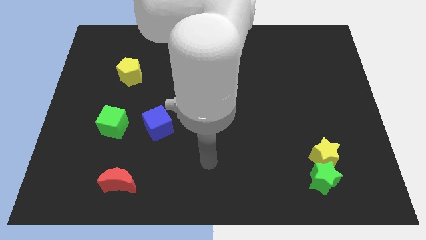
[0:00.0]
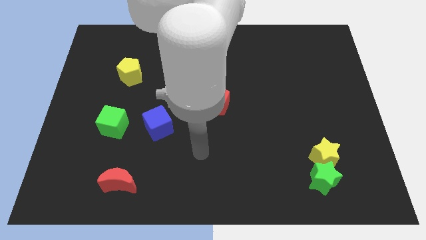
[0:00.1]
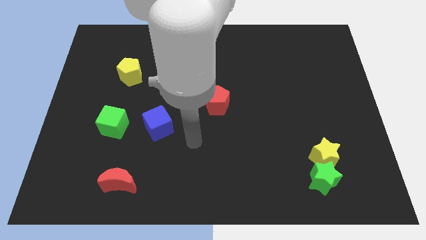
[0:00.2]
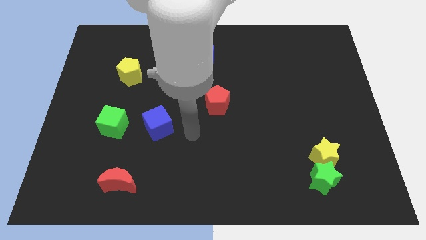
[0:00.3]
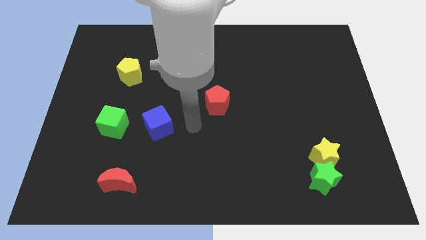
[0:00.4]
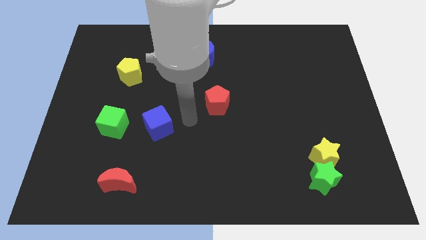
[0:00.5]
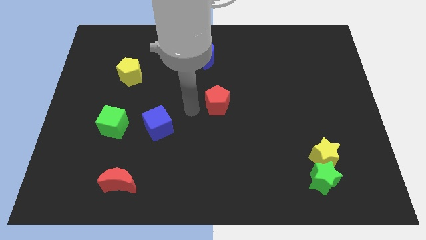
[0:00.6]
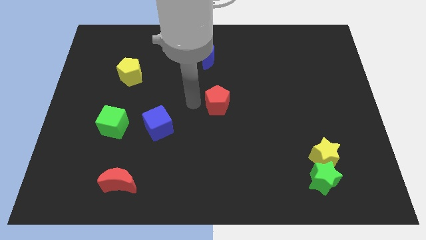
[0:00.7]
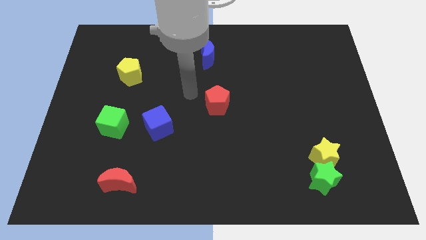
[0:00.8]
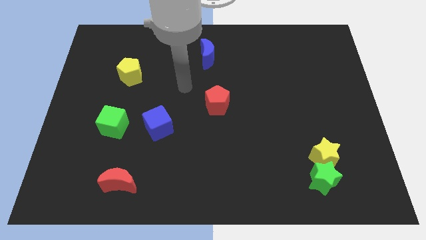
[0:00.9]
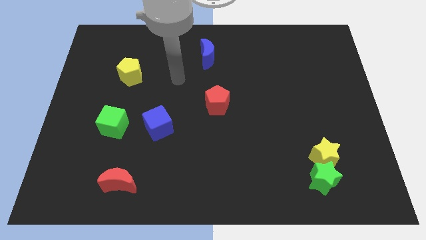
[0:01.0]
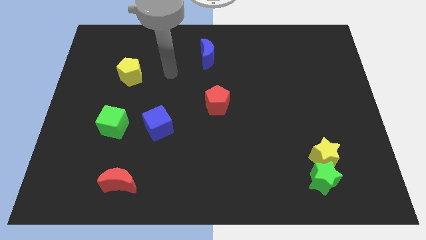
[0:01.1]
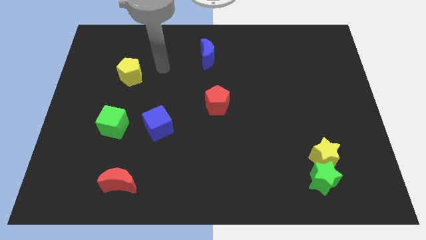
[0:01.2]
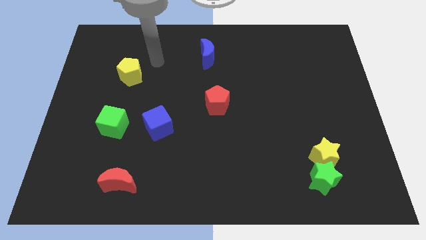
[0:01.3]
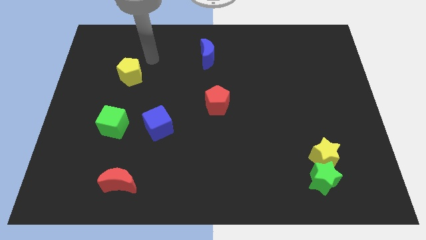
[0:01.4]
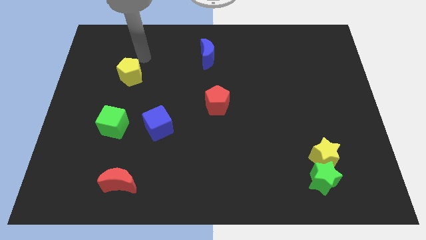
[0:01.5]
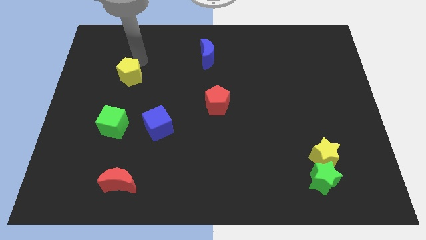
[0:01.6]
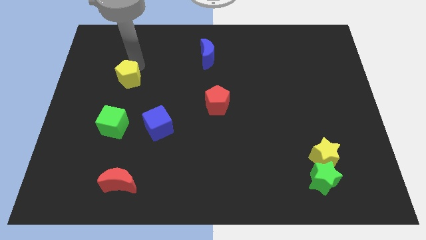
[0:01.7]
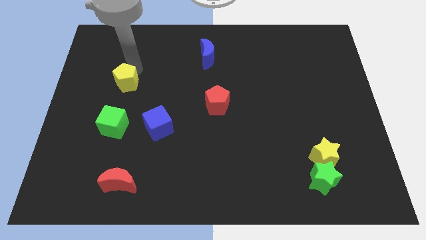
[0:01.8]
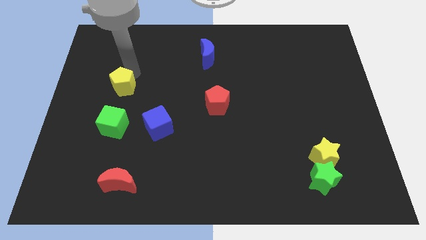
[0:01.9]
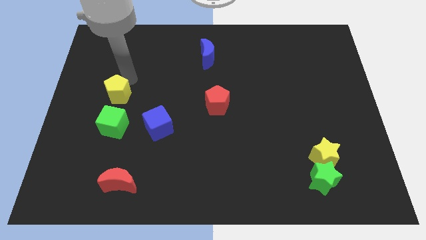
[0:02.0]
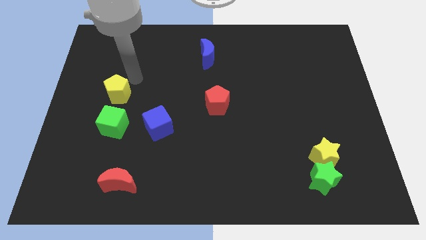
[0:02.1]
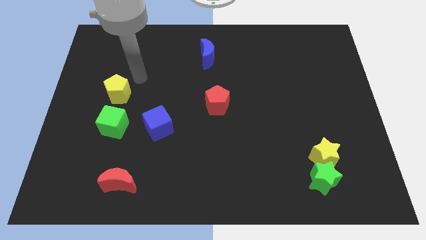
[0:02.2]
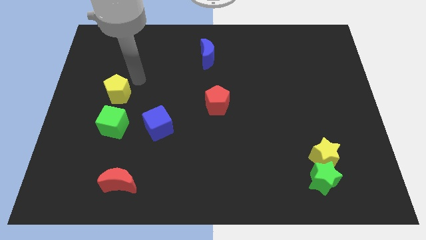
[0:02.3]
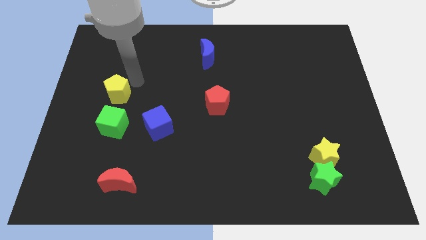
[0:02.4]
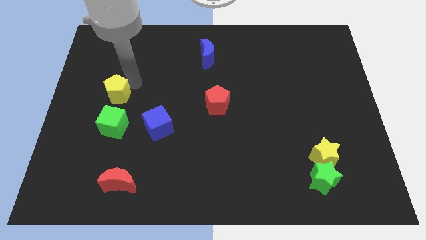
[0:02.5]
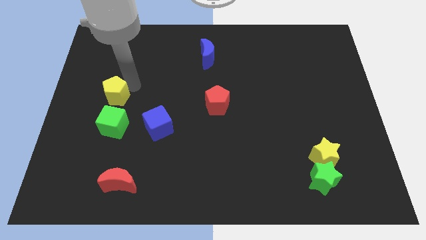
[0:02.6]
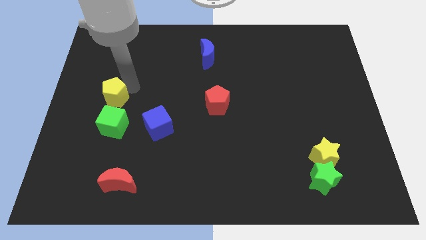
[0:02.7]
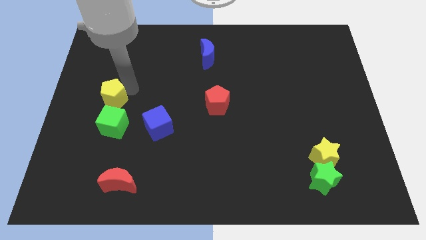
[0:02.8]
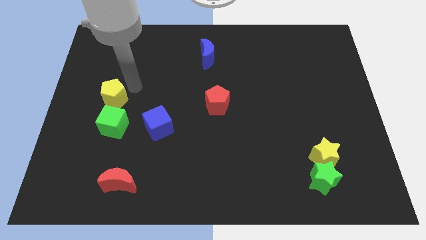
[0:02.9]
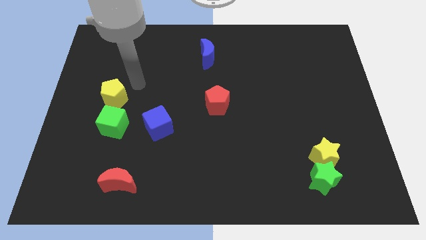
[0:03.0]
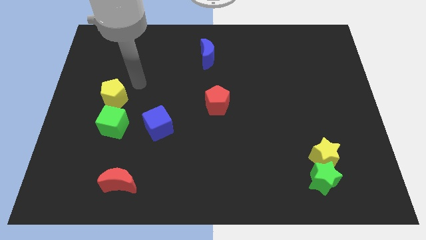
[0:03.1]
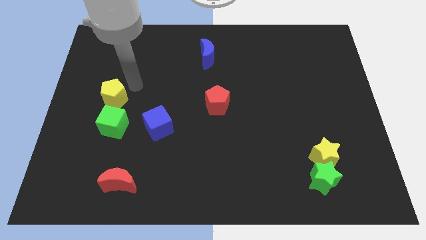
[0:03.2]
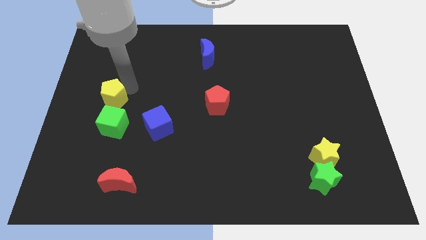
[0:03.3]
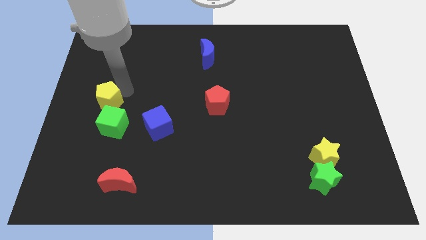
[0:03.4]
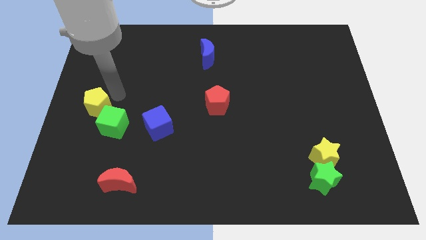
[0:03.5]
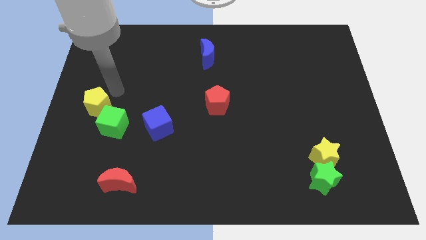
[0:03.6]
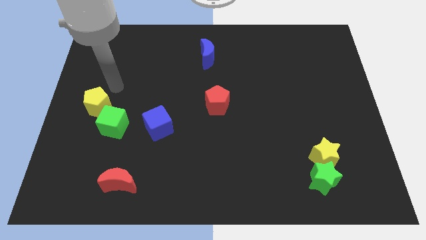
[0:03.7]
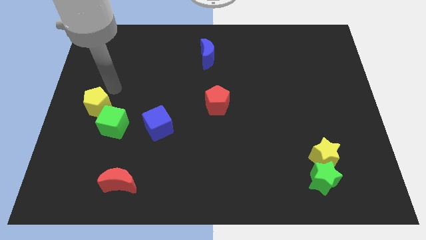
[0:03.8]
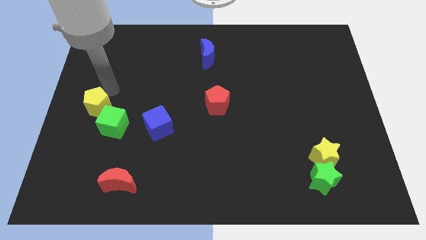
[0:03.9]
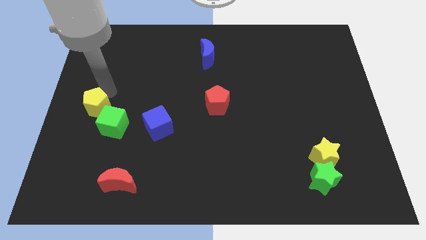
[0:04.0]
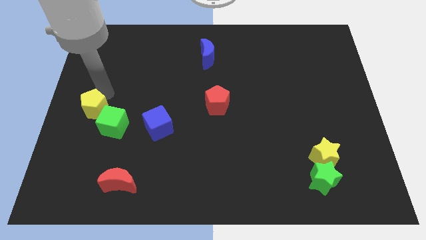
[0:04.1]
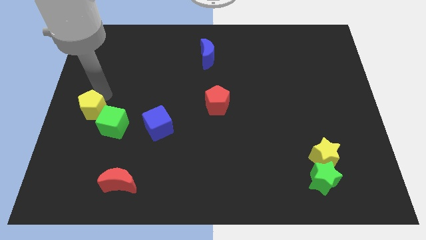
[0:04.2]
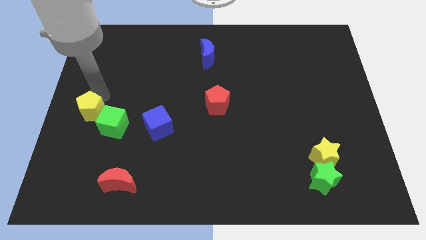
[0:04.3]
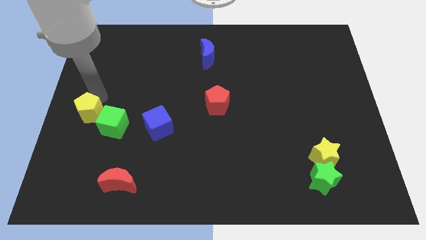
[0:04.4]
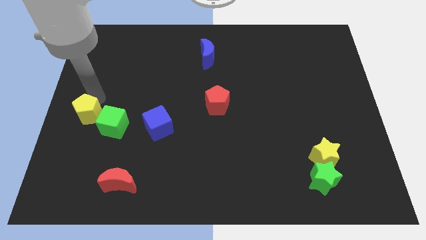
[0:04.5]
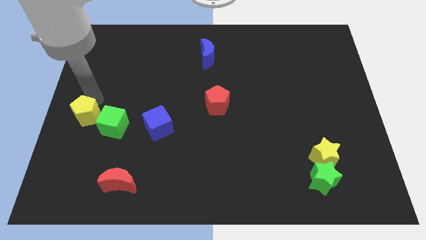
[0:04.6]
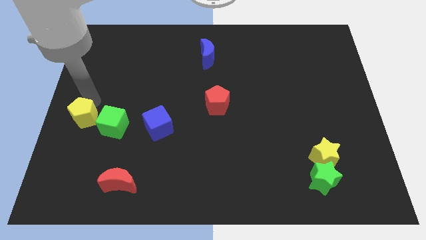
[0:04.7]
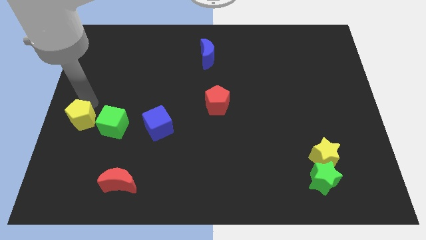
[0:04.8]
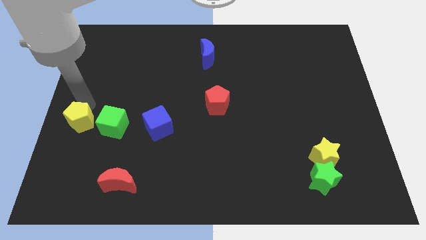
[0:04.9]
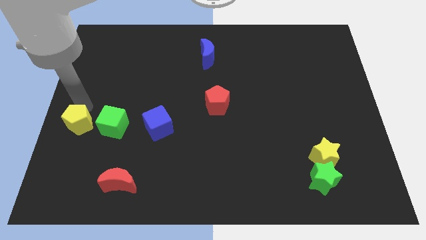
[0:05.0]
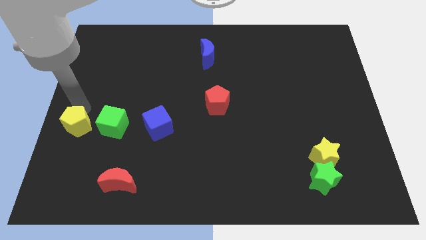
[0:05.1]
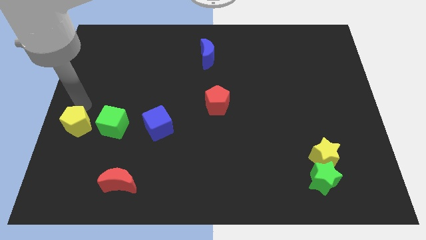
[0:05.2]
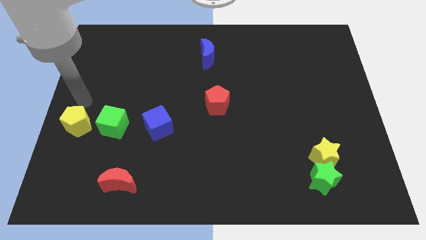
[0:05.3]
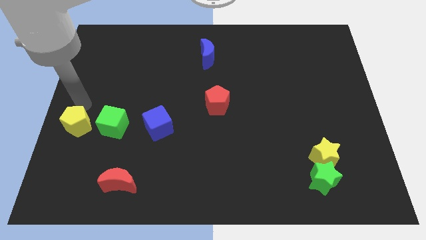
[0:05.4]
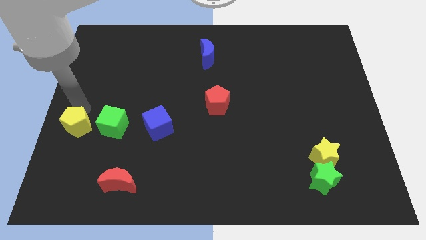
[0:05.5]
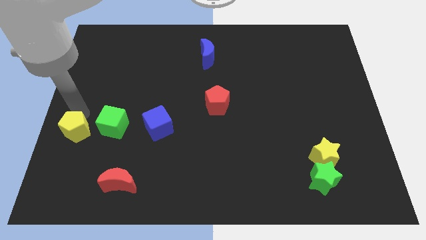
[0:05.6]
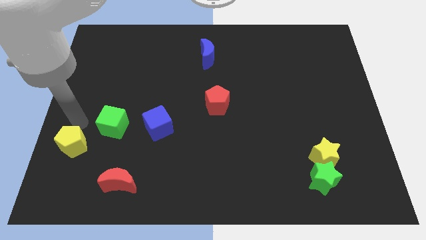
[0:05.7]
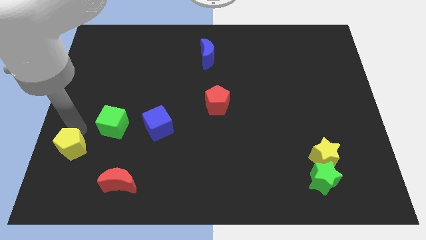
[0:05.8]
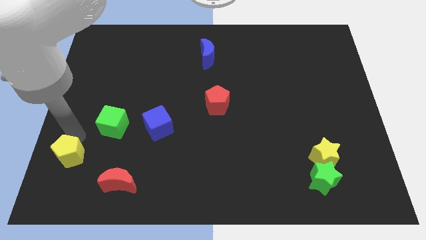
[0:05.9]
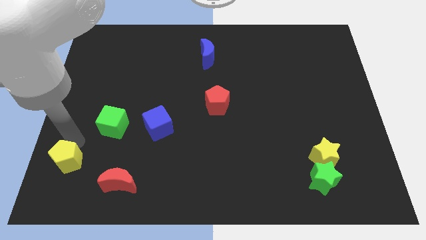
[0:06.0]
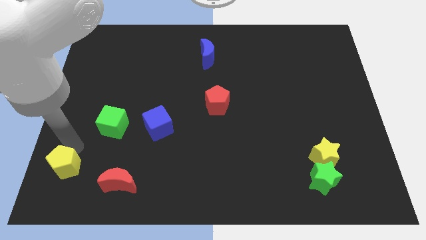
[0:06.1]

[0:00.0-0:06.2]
put the yellow pentagon to the bottom left of the board

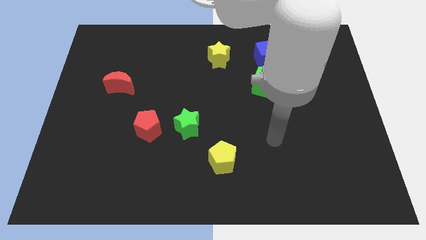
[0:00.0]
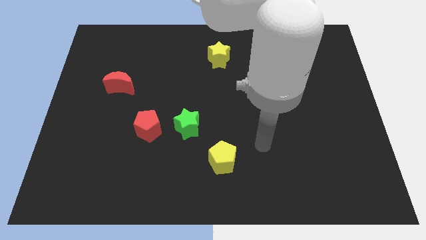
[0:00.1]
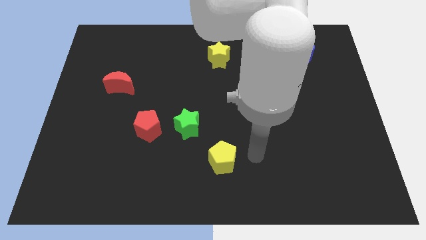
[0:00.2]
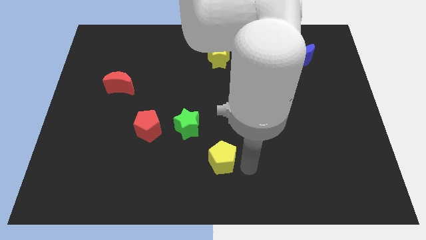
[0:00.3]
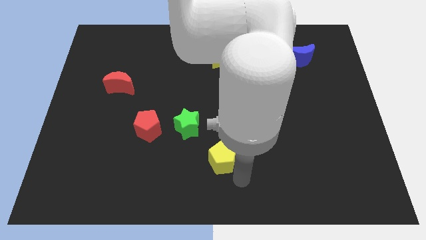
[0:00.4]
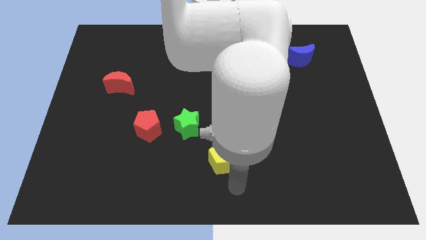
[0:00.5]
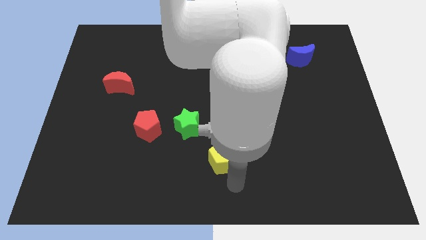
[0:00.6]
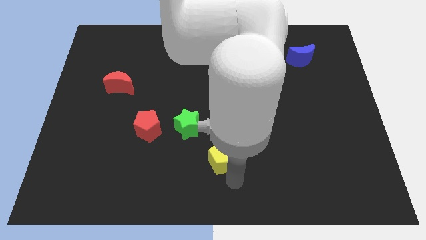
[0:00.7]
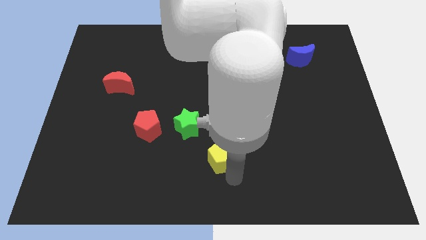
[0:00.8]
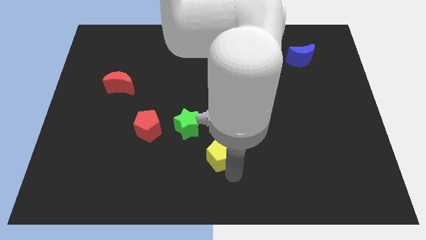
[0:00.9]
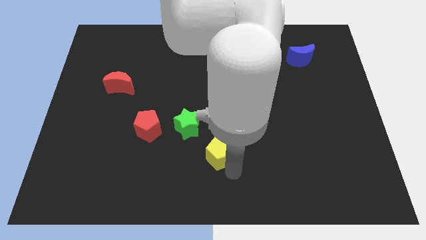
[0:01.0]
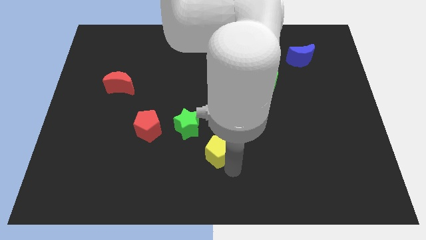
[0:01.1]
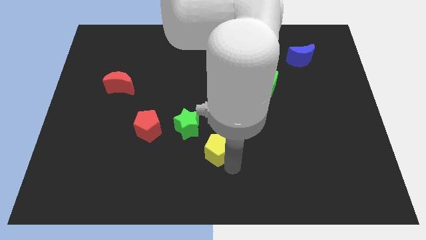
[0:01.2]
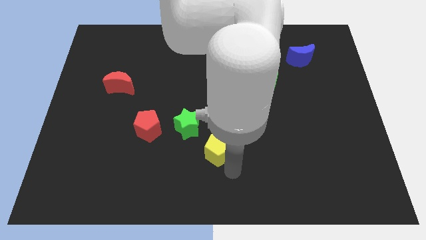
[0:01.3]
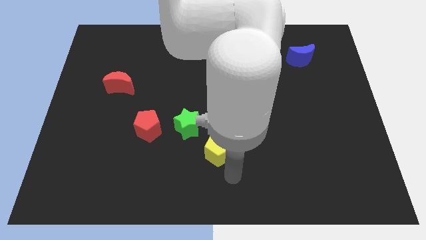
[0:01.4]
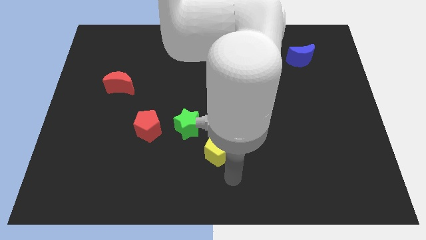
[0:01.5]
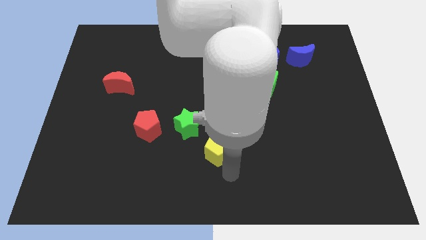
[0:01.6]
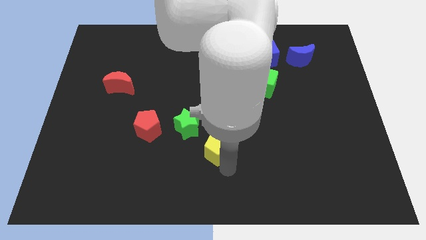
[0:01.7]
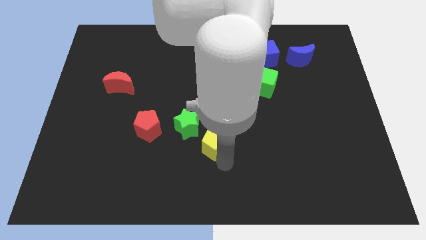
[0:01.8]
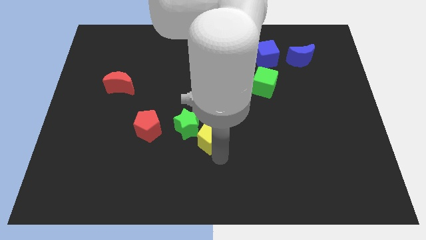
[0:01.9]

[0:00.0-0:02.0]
slide the yellow pentagon to the center of the board
